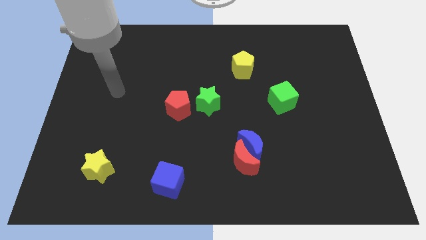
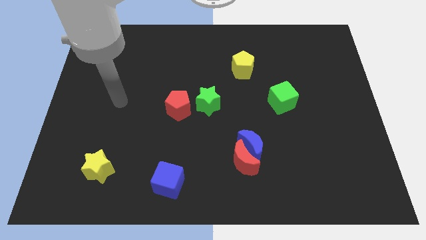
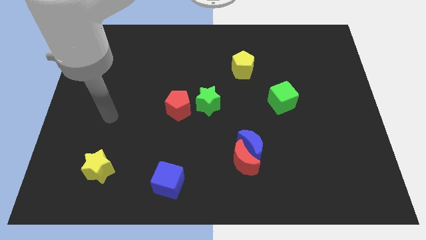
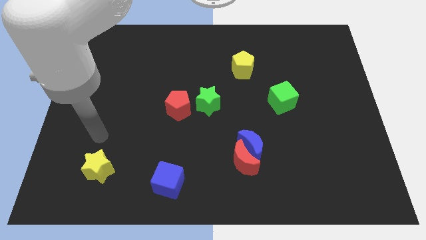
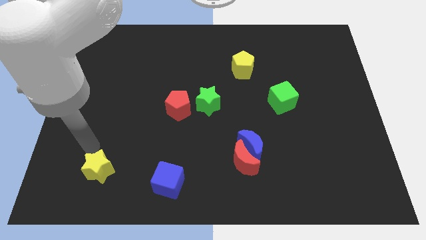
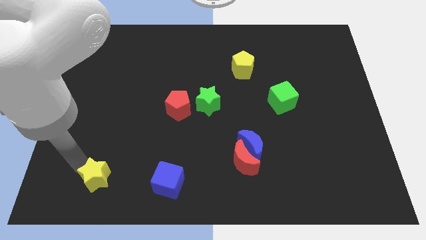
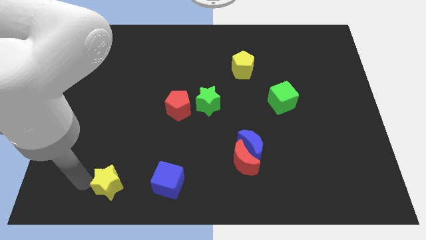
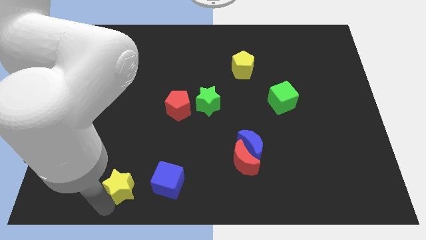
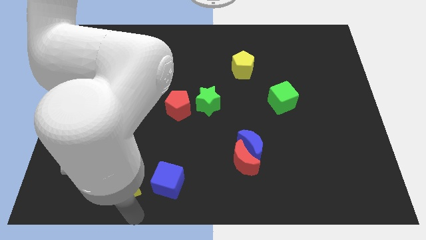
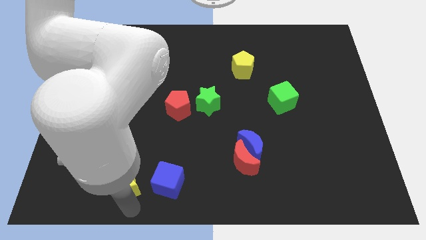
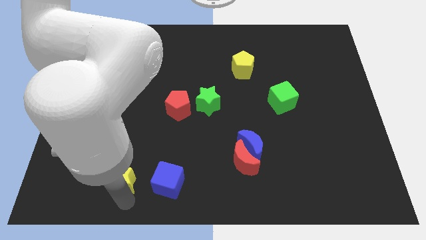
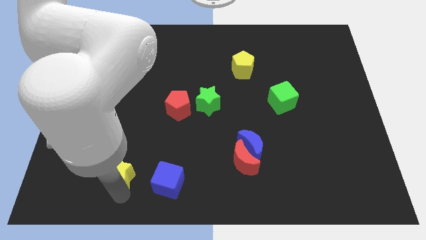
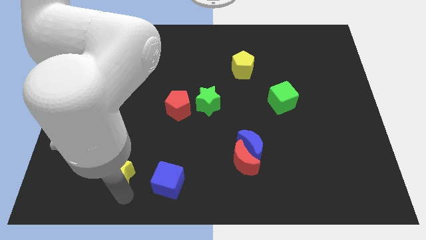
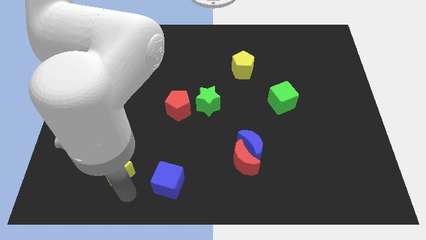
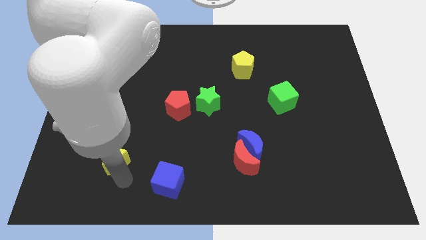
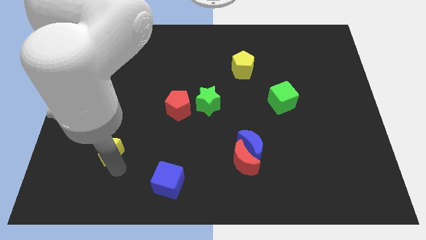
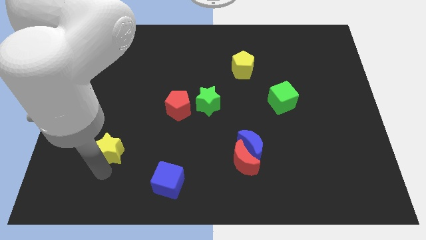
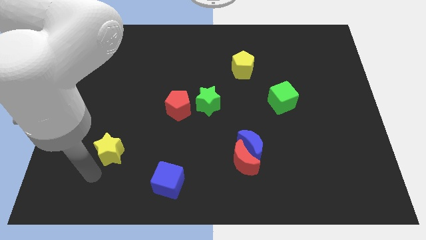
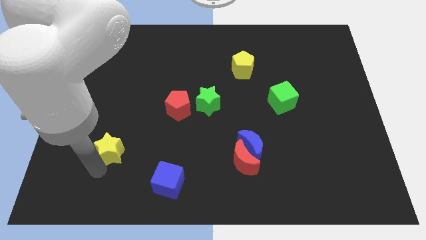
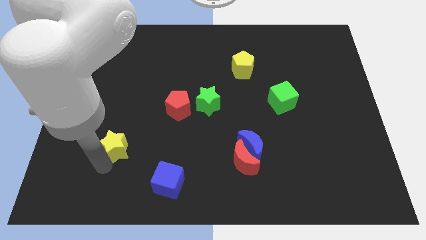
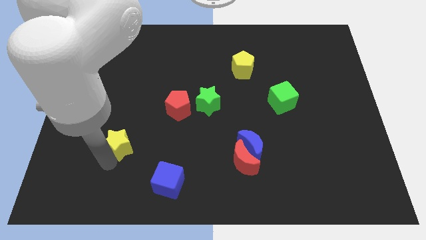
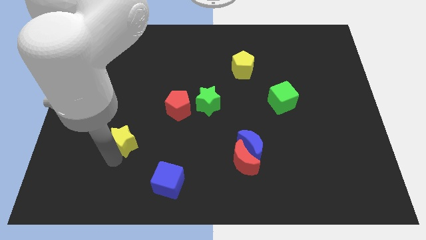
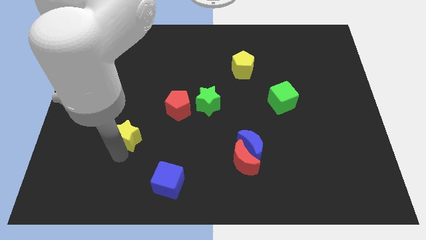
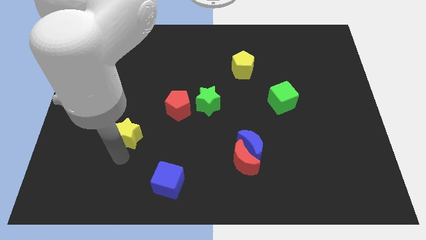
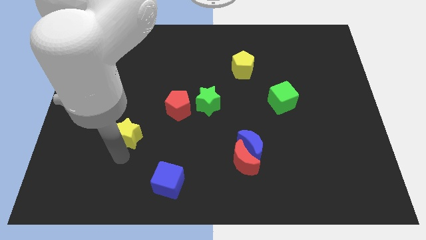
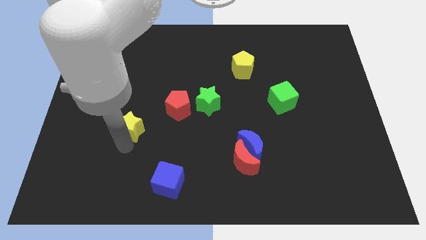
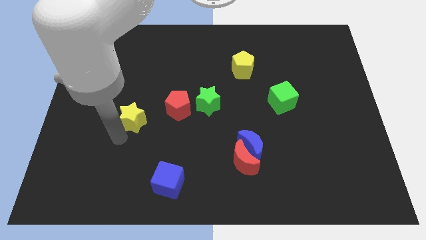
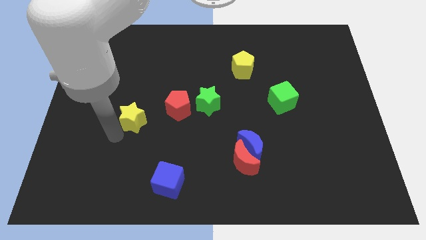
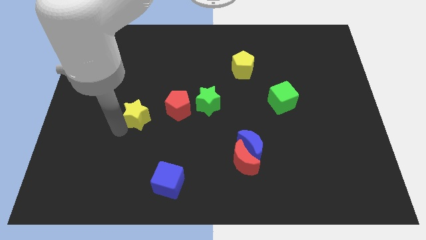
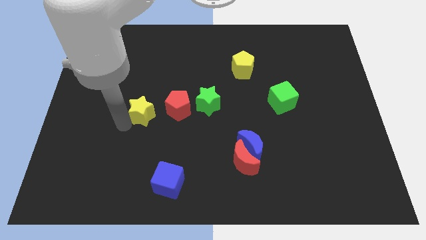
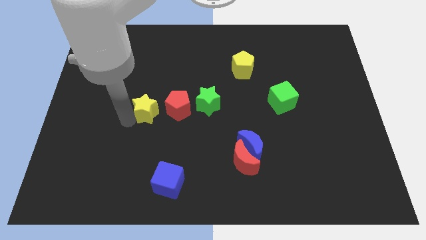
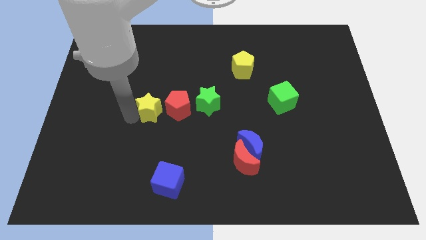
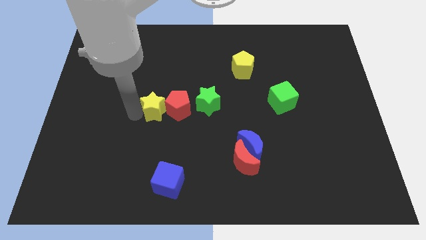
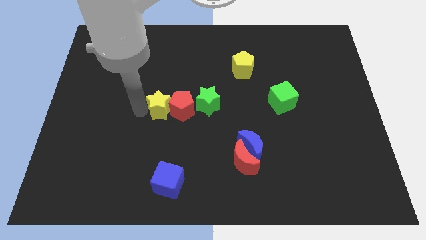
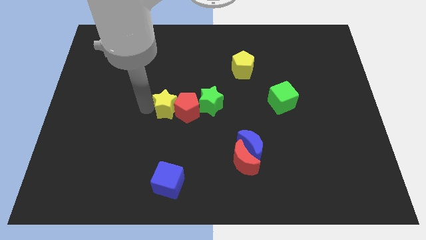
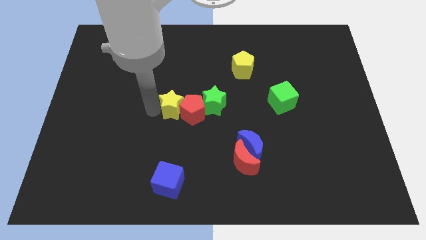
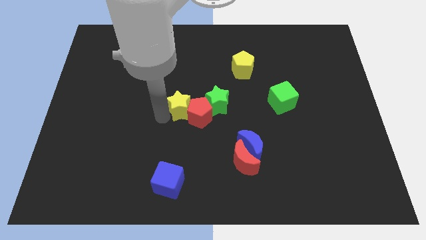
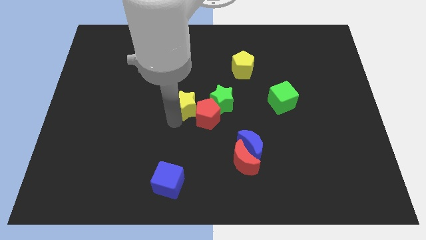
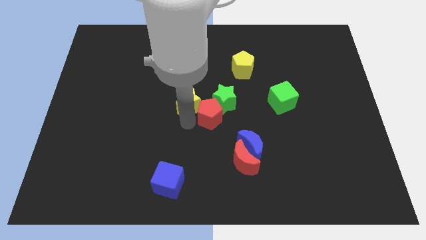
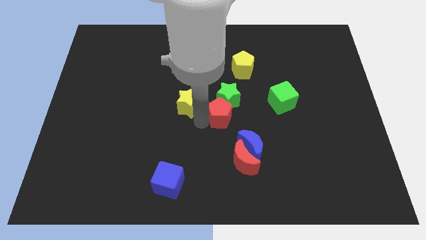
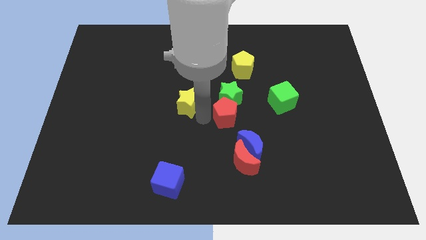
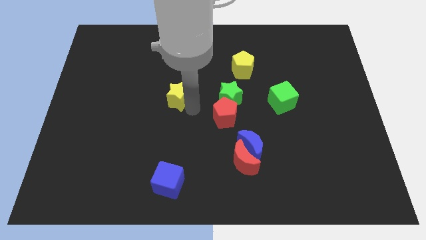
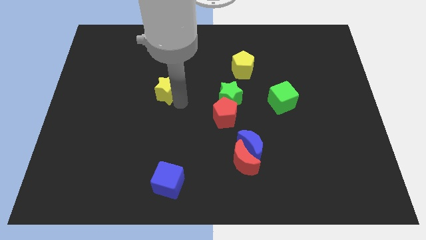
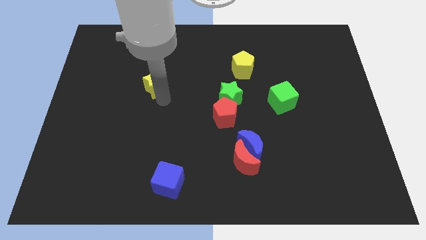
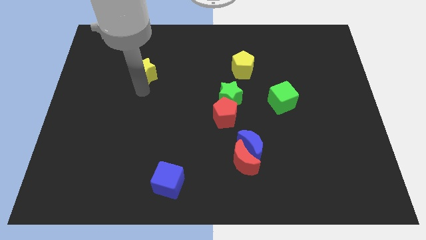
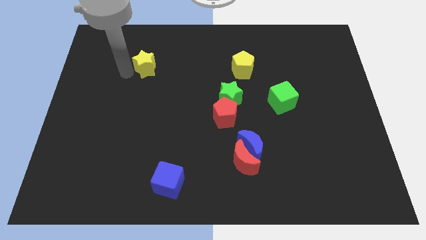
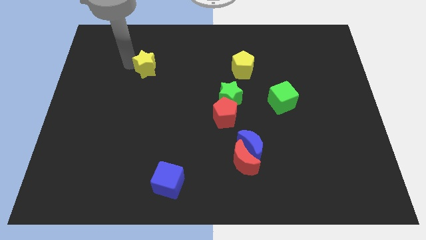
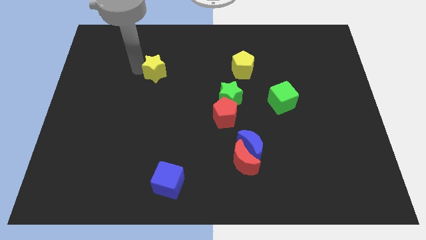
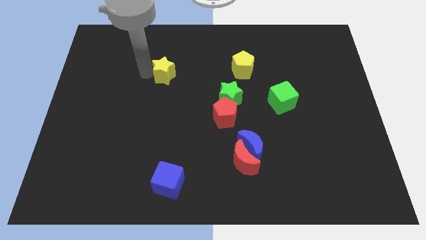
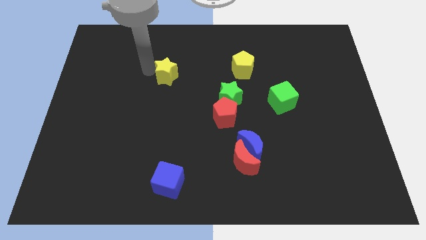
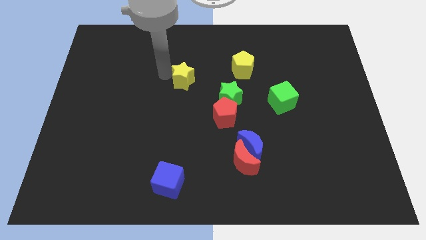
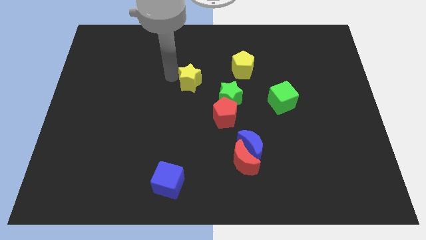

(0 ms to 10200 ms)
push the yellow star to the top left of the green star

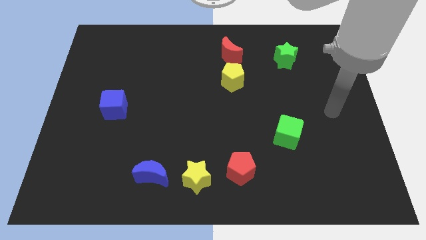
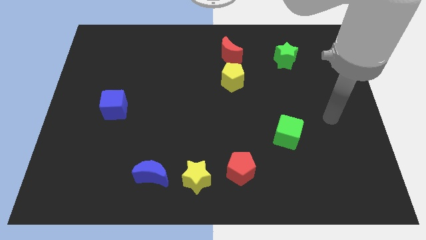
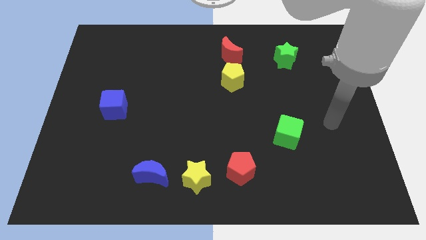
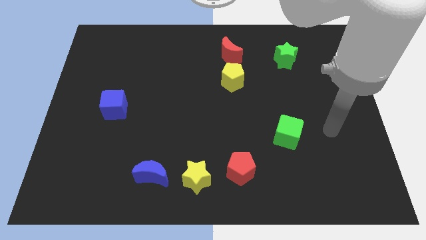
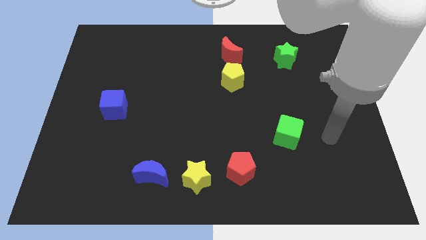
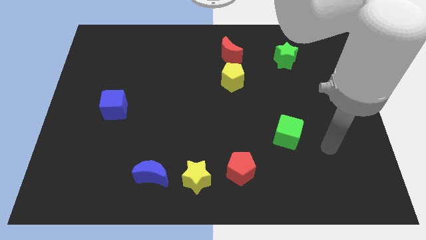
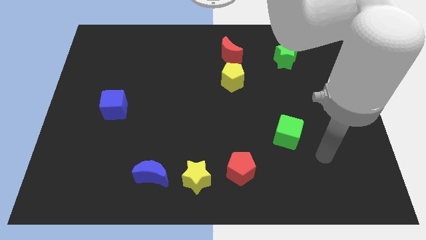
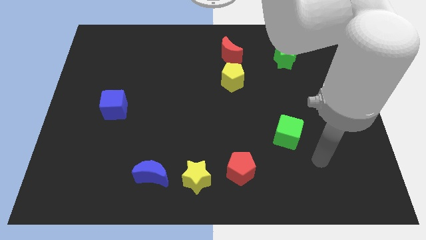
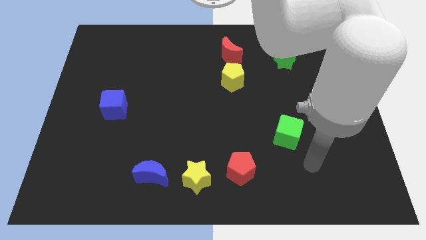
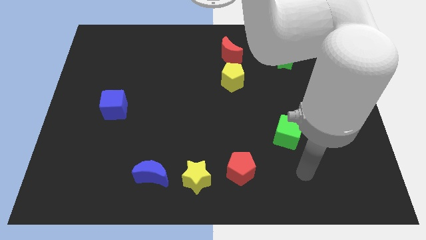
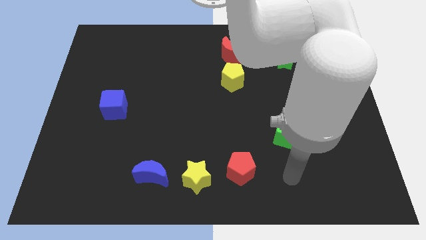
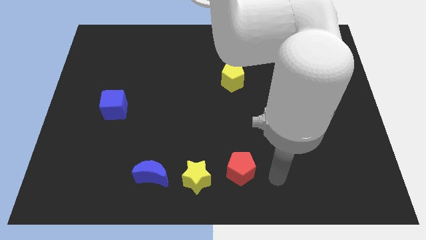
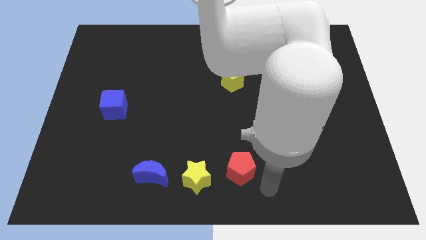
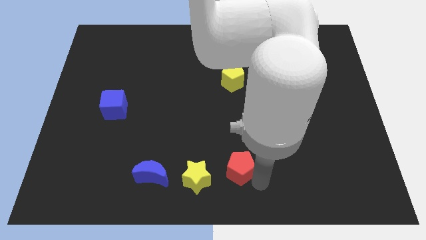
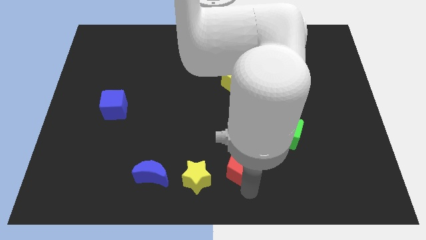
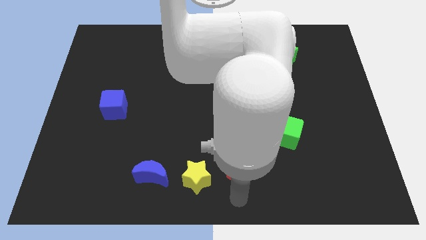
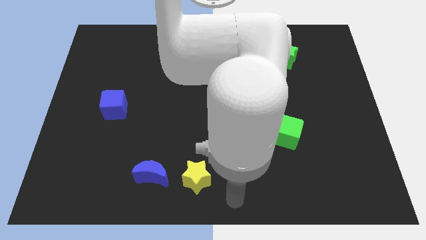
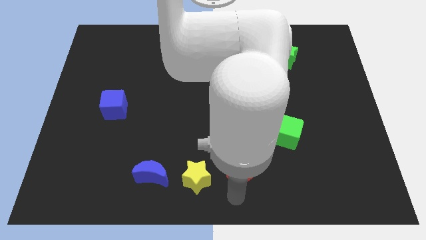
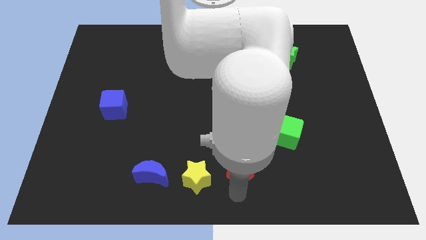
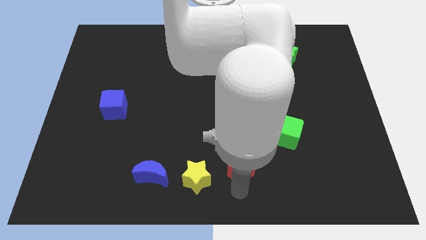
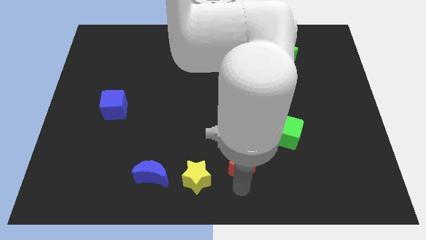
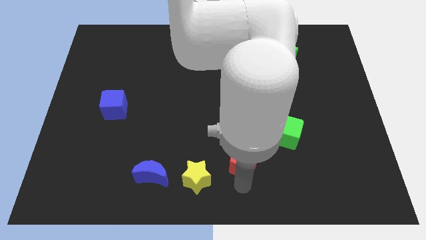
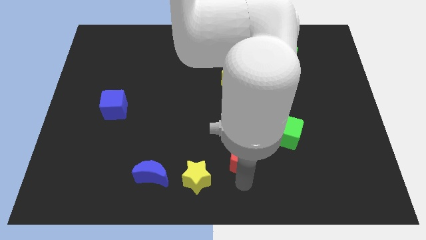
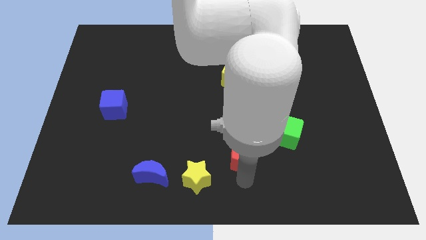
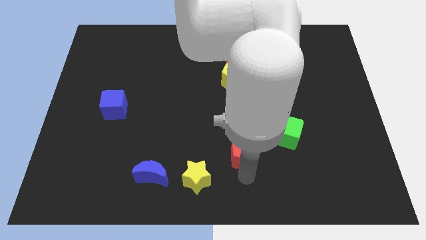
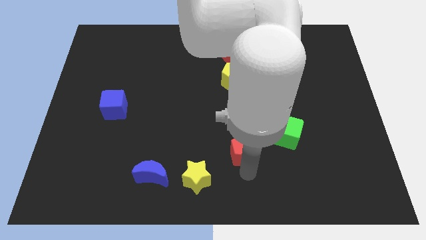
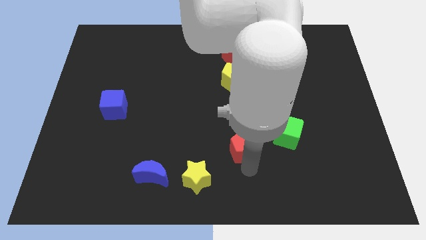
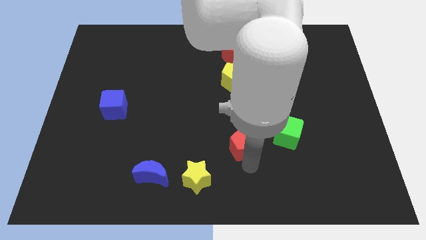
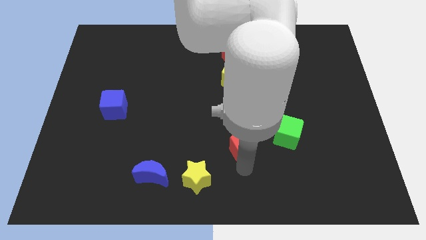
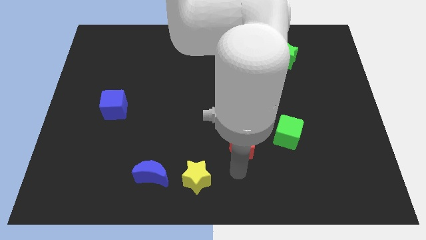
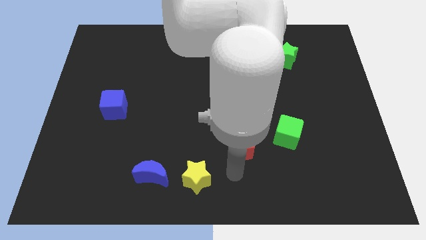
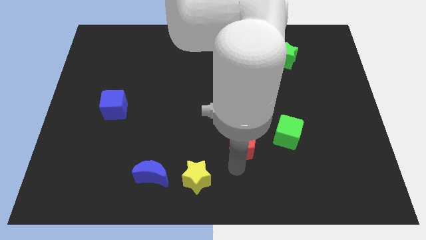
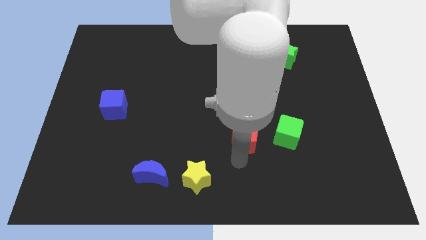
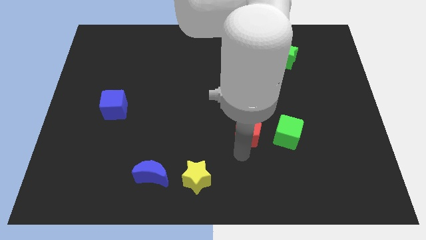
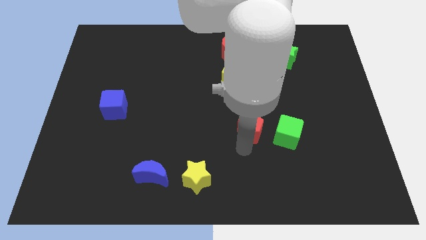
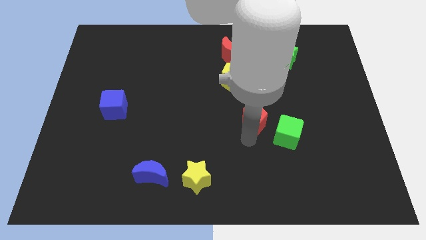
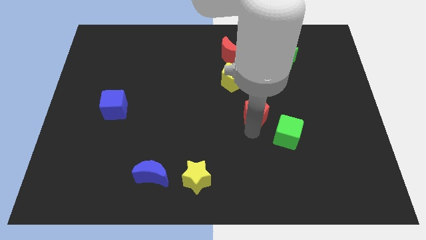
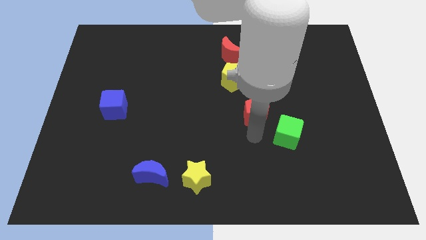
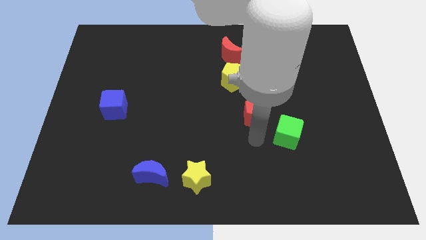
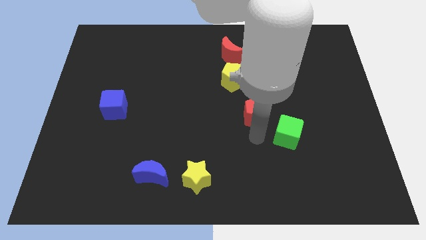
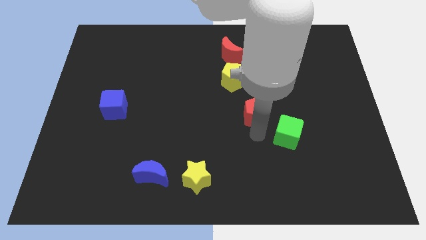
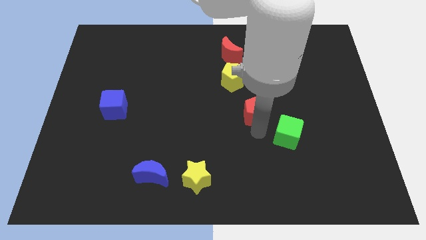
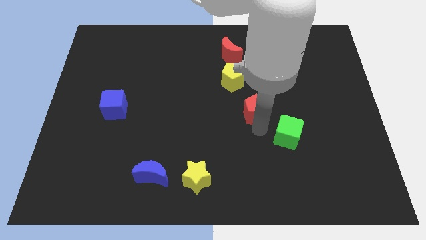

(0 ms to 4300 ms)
move the red pentagon diagonally down and to the right of the yellow pentagon
